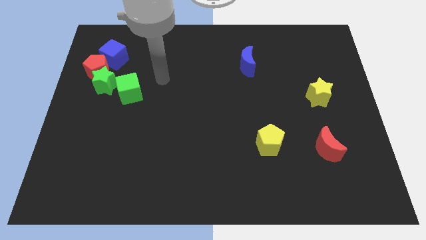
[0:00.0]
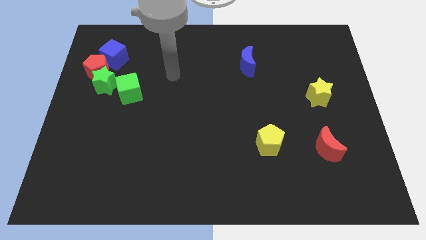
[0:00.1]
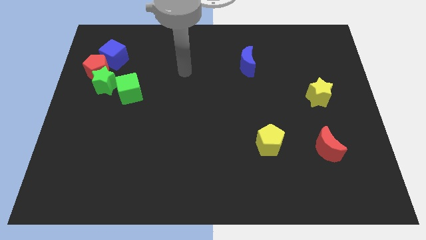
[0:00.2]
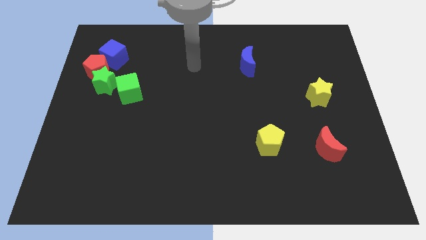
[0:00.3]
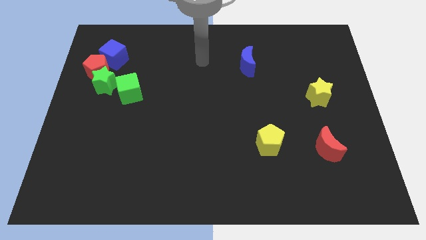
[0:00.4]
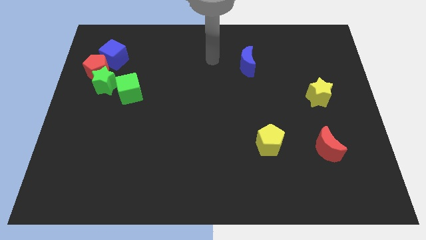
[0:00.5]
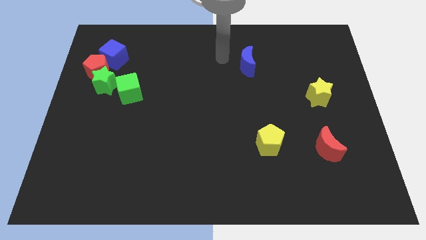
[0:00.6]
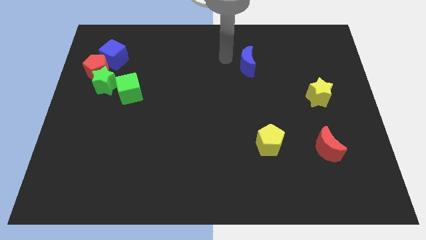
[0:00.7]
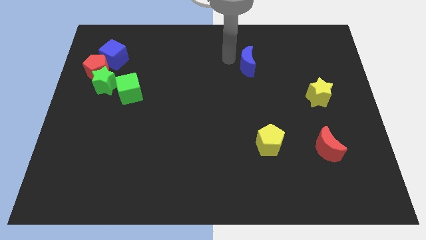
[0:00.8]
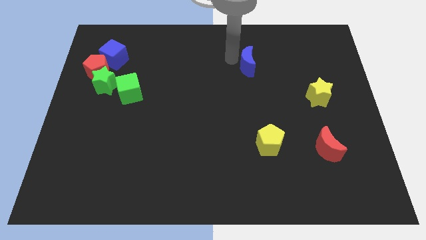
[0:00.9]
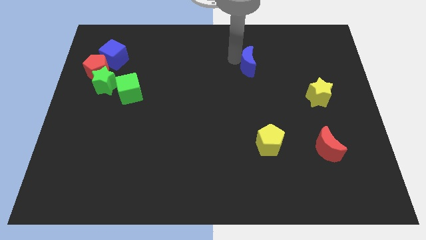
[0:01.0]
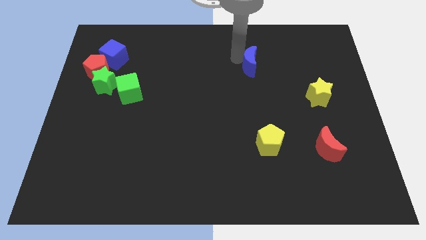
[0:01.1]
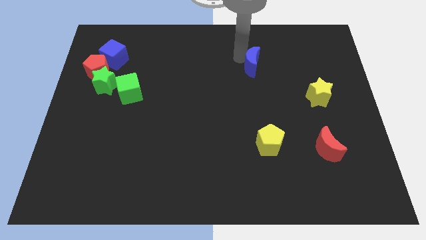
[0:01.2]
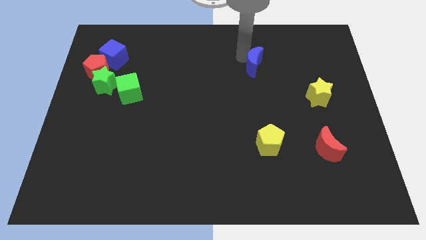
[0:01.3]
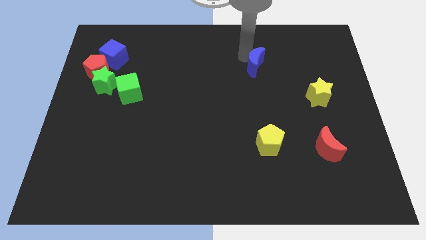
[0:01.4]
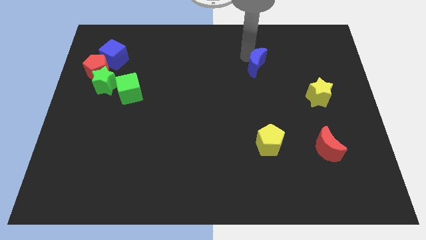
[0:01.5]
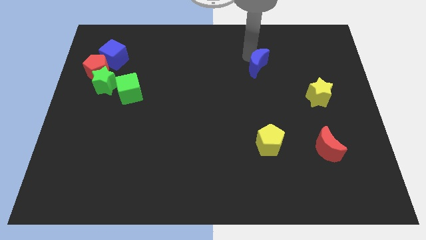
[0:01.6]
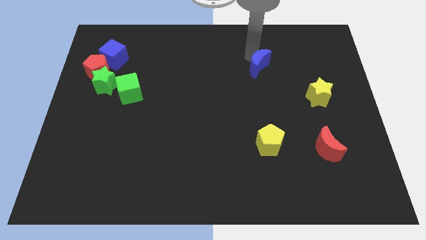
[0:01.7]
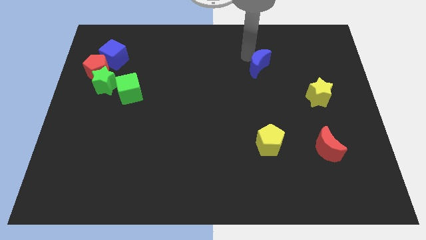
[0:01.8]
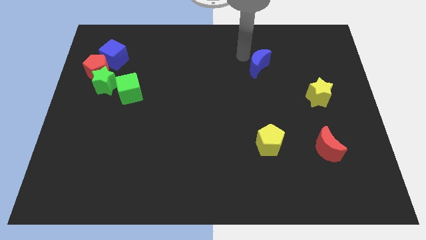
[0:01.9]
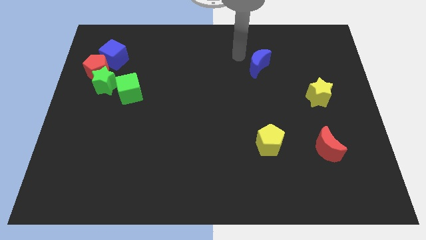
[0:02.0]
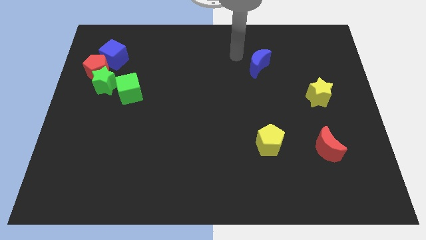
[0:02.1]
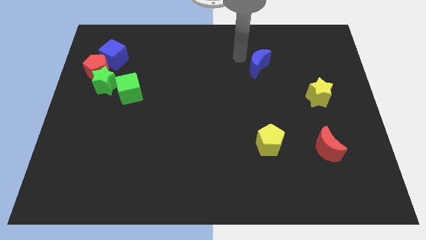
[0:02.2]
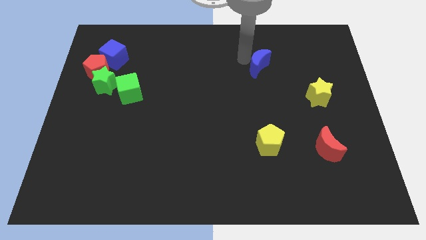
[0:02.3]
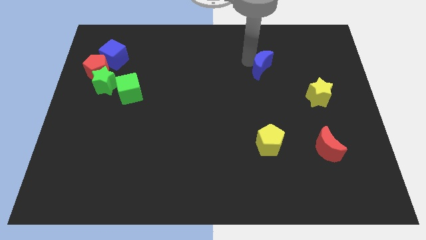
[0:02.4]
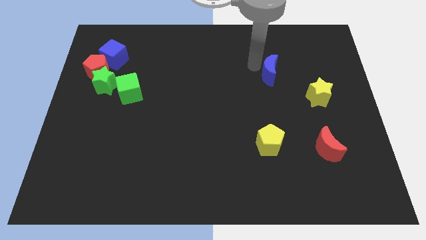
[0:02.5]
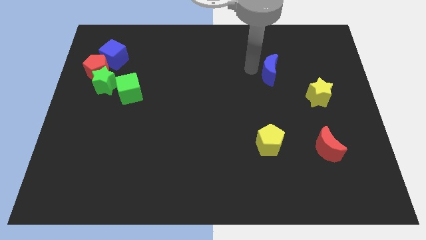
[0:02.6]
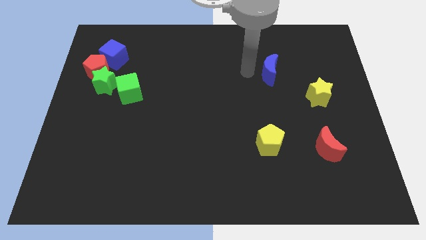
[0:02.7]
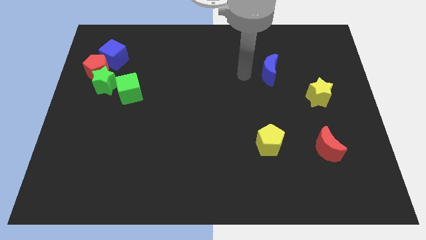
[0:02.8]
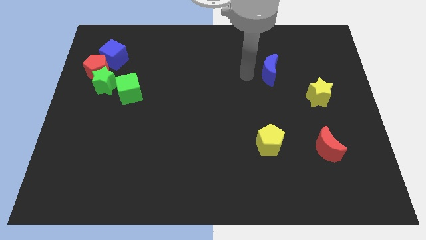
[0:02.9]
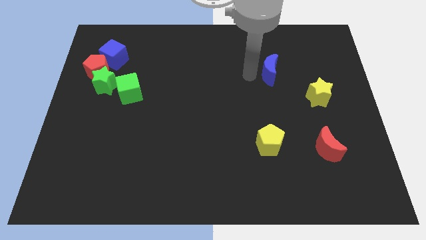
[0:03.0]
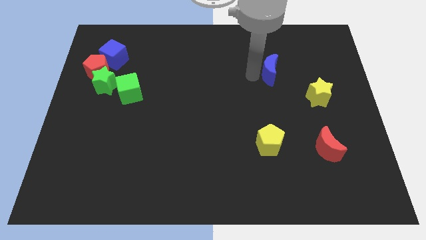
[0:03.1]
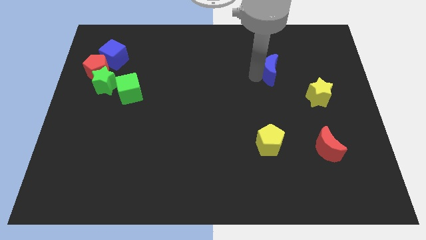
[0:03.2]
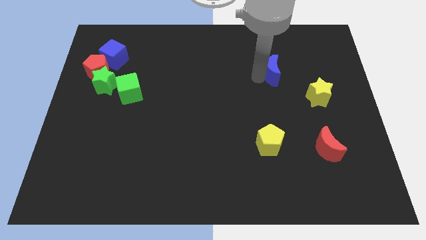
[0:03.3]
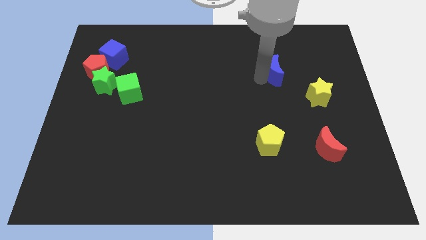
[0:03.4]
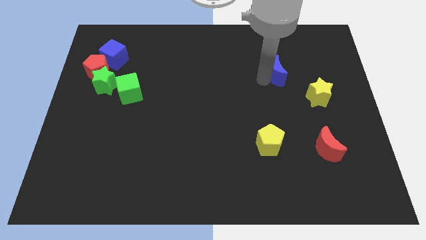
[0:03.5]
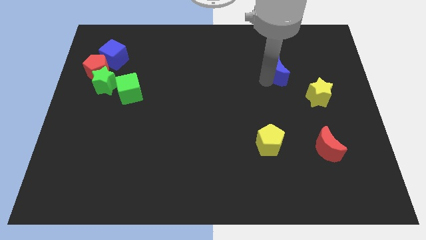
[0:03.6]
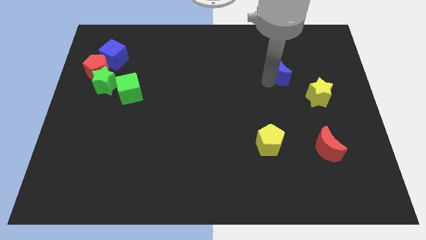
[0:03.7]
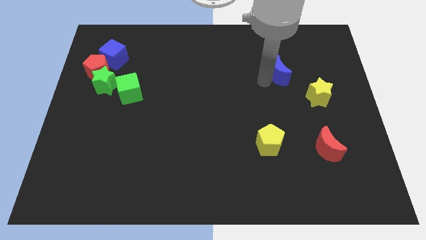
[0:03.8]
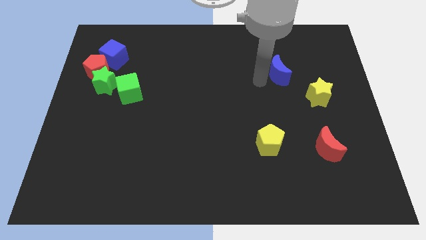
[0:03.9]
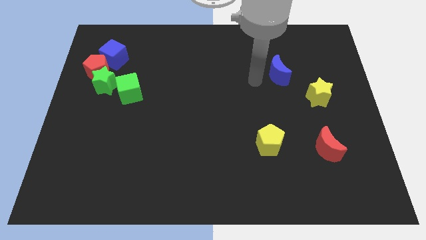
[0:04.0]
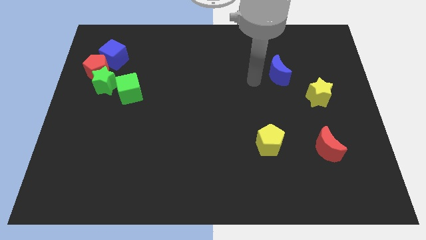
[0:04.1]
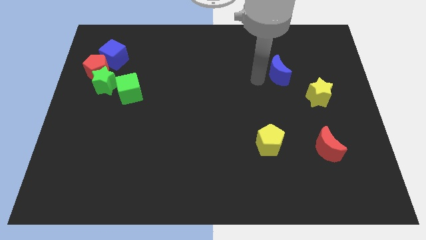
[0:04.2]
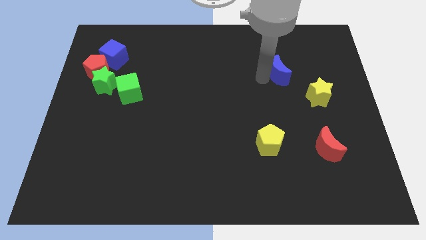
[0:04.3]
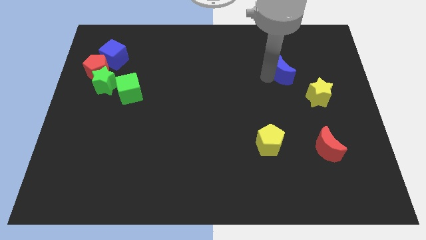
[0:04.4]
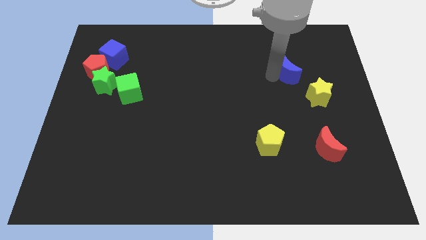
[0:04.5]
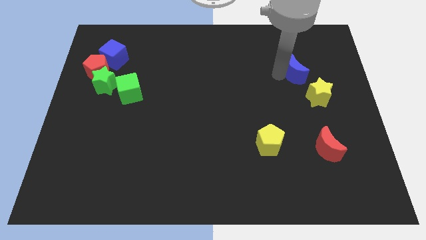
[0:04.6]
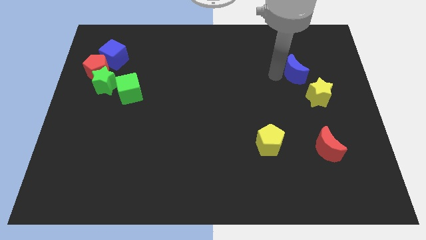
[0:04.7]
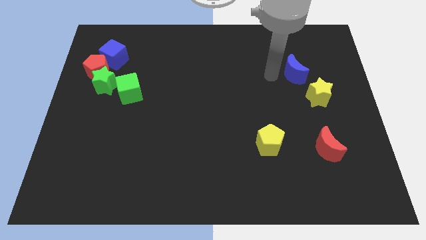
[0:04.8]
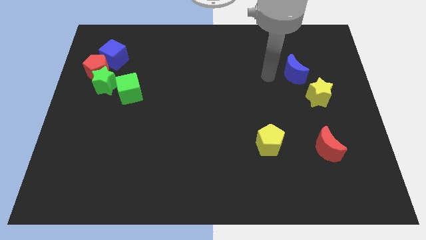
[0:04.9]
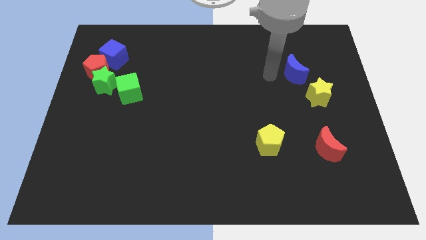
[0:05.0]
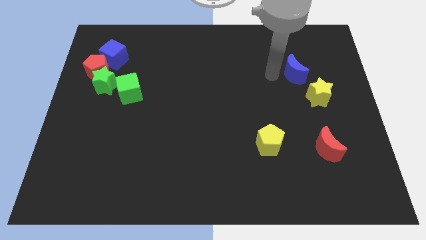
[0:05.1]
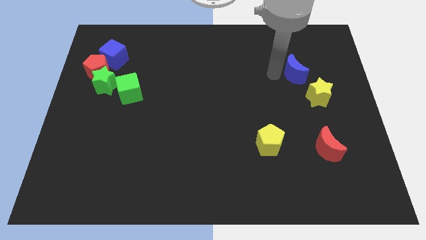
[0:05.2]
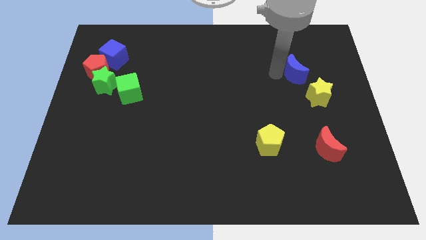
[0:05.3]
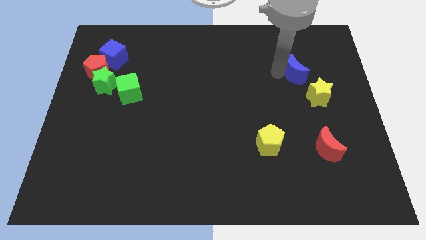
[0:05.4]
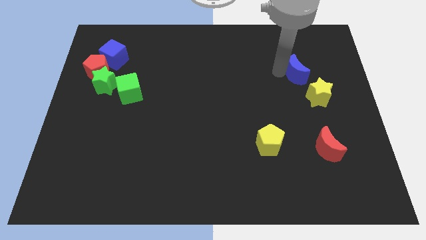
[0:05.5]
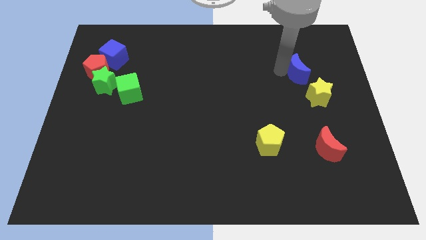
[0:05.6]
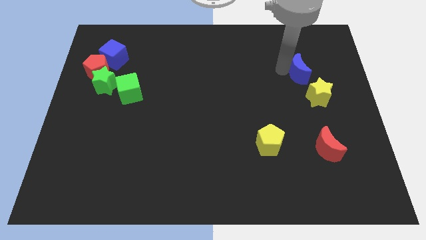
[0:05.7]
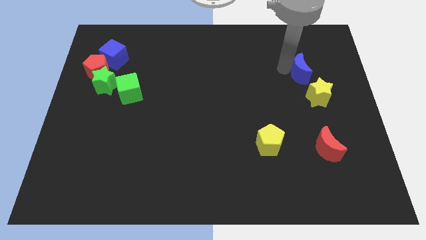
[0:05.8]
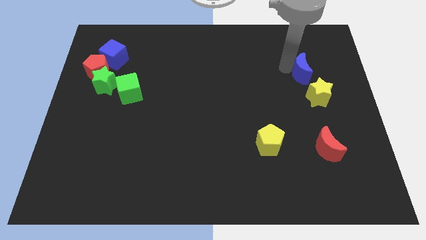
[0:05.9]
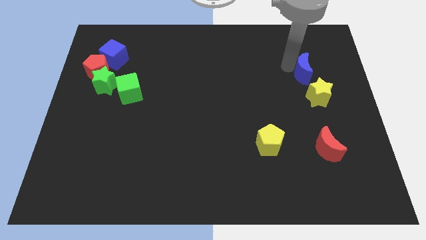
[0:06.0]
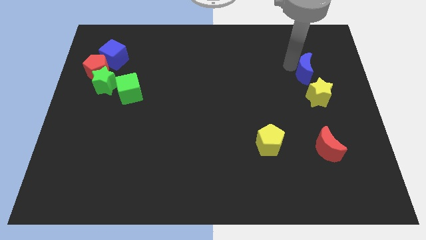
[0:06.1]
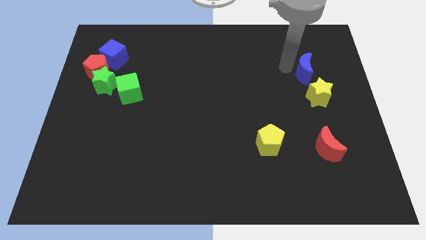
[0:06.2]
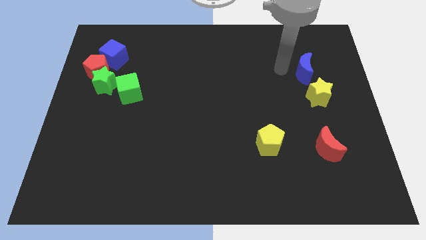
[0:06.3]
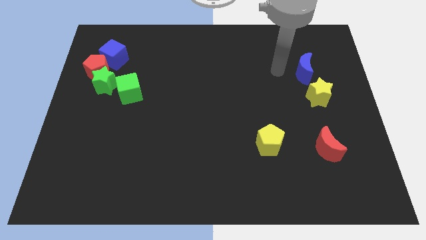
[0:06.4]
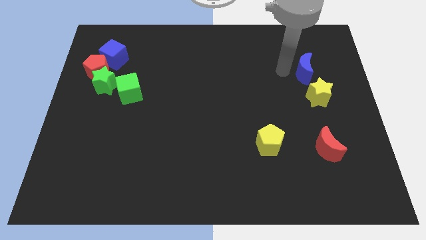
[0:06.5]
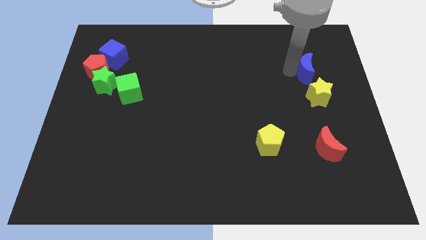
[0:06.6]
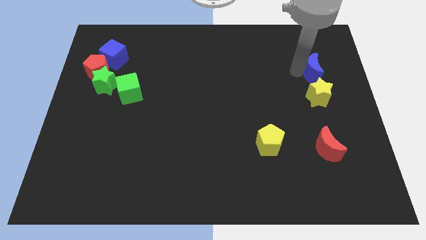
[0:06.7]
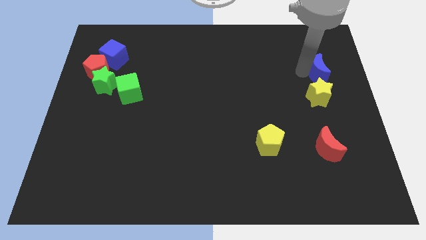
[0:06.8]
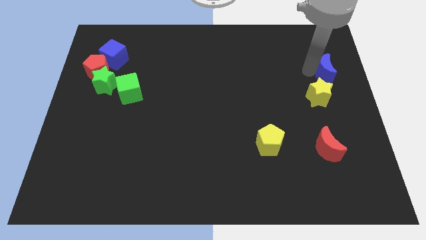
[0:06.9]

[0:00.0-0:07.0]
push the blue moon to the center right
